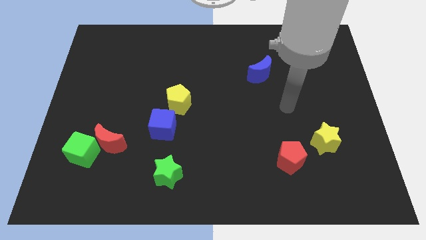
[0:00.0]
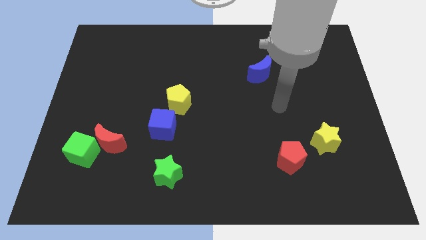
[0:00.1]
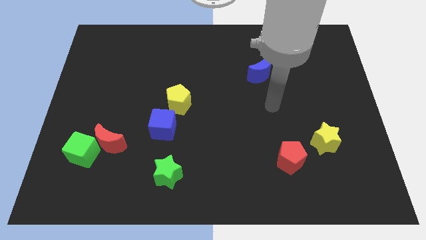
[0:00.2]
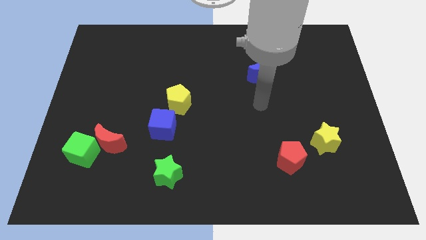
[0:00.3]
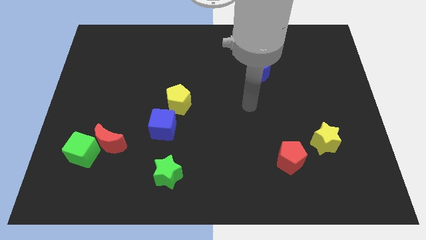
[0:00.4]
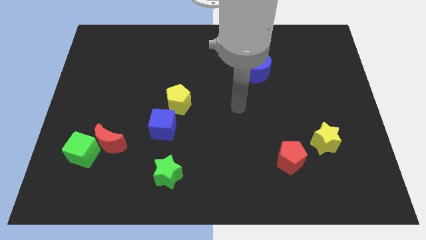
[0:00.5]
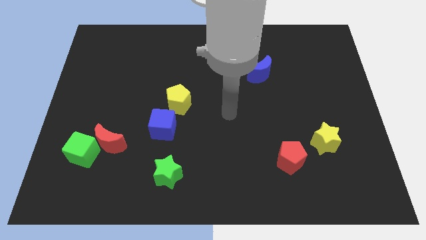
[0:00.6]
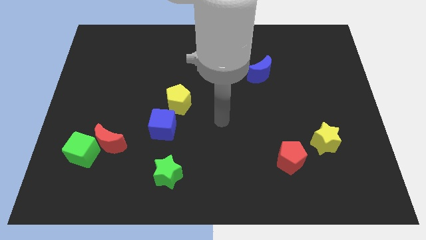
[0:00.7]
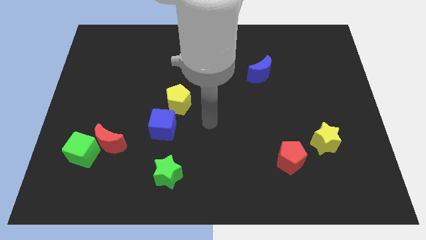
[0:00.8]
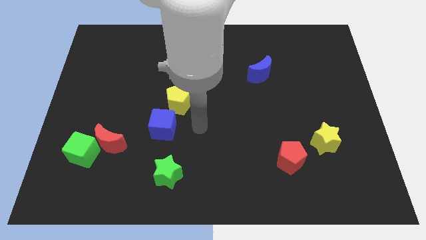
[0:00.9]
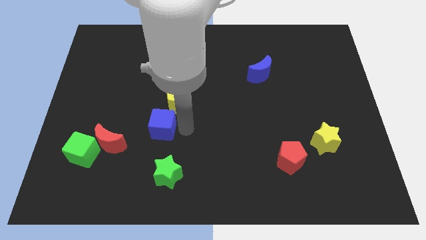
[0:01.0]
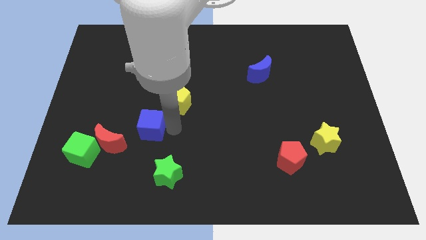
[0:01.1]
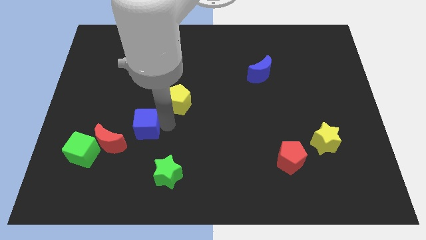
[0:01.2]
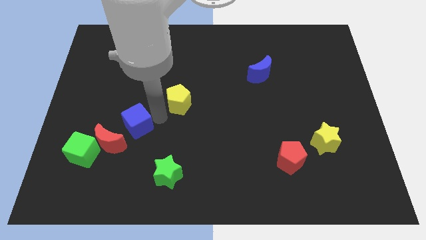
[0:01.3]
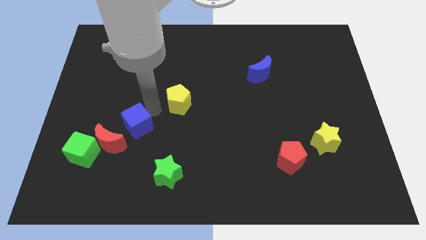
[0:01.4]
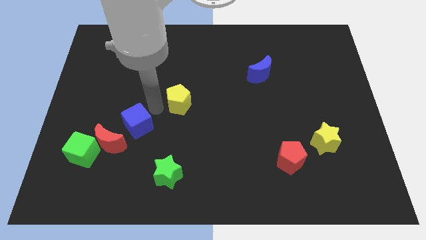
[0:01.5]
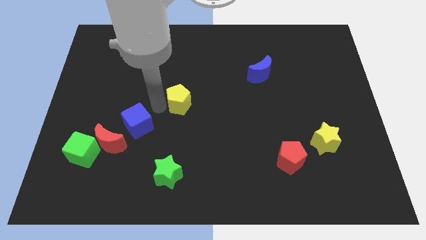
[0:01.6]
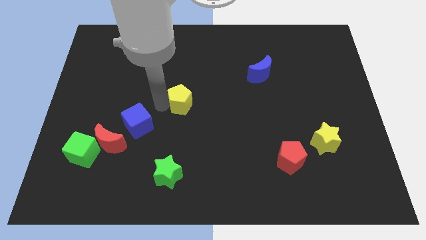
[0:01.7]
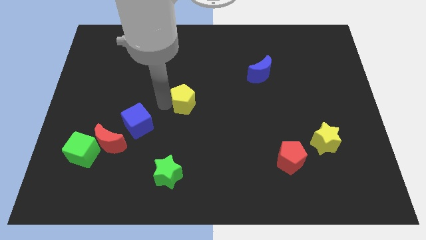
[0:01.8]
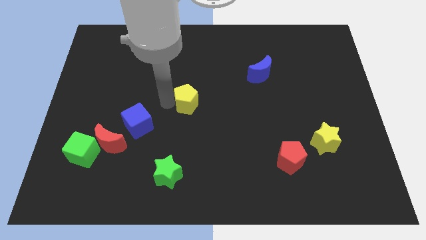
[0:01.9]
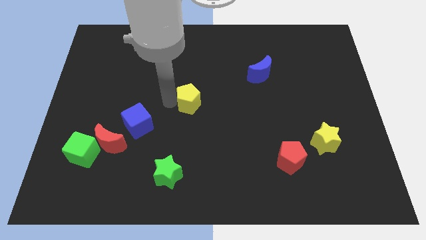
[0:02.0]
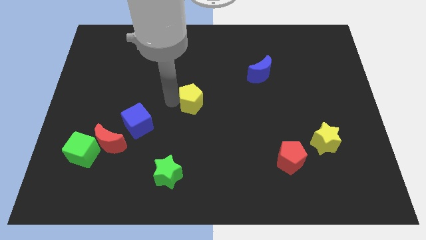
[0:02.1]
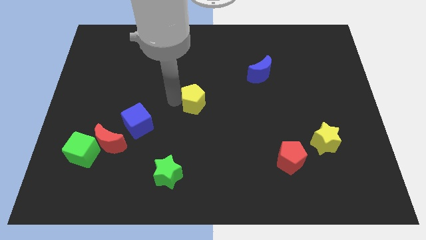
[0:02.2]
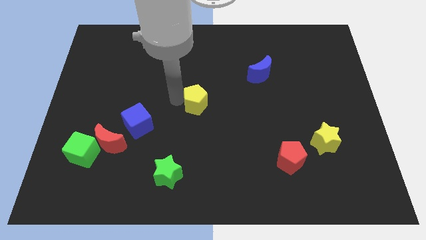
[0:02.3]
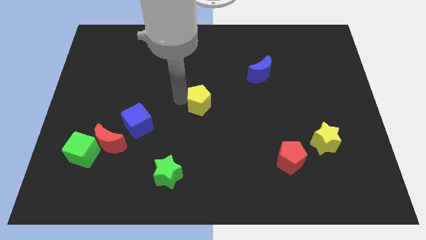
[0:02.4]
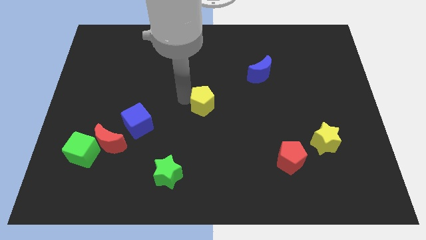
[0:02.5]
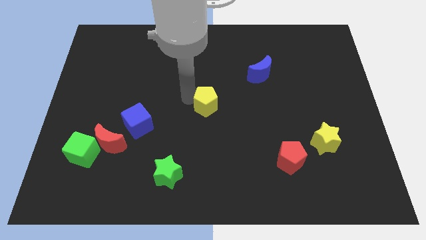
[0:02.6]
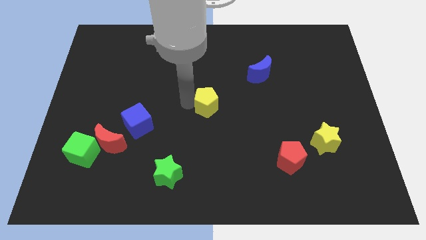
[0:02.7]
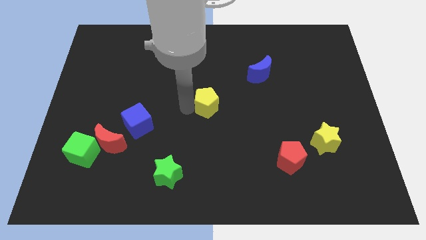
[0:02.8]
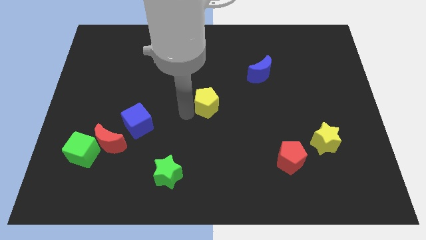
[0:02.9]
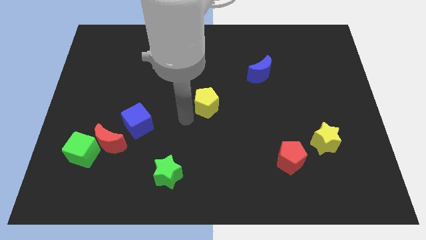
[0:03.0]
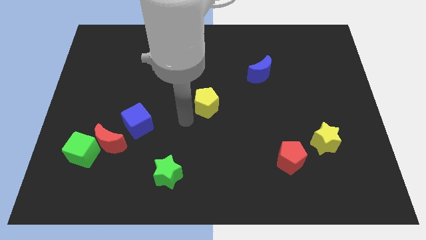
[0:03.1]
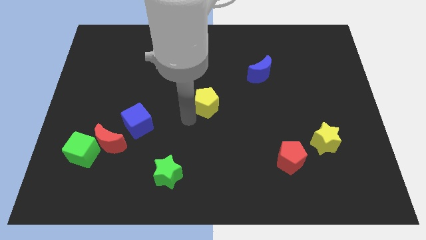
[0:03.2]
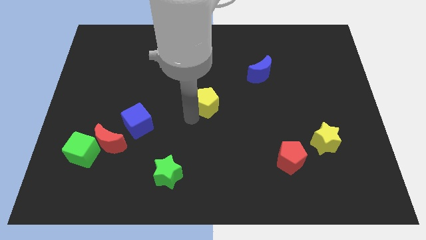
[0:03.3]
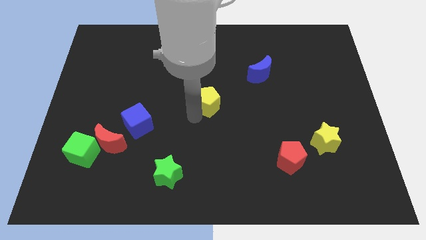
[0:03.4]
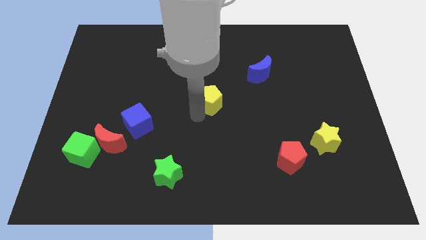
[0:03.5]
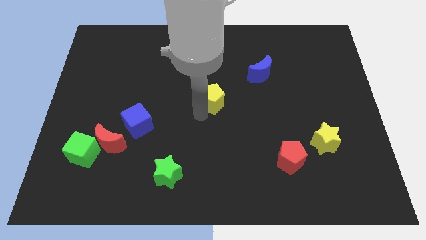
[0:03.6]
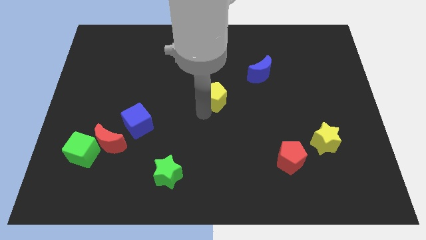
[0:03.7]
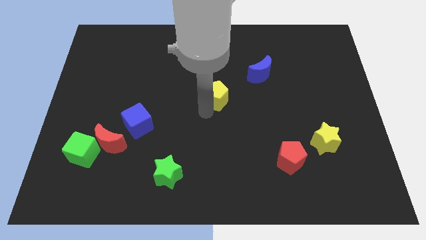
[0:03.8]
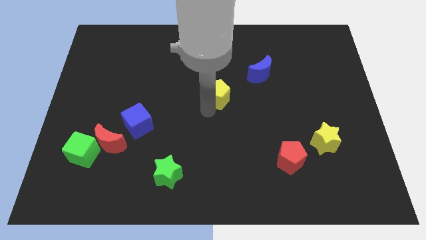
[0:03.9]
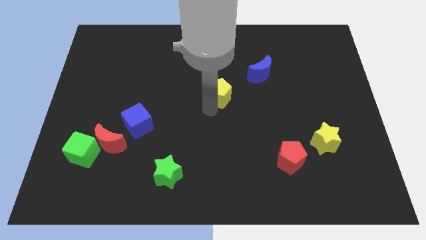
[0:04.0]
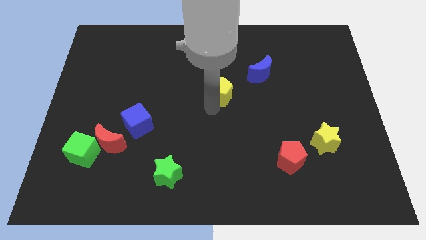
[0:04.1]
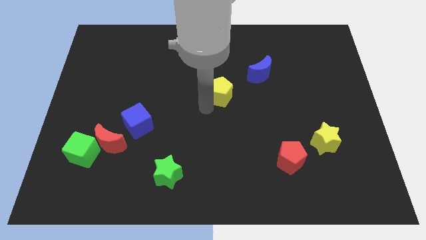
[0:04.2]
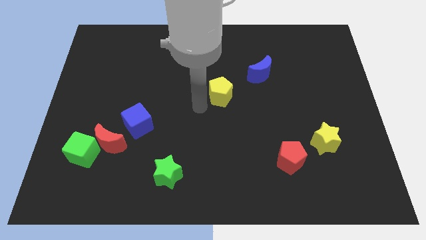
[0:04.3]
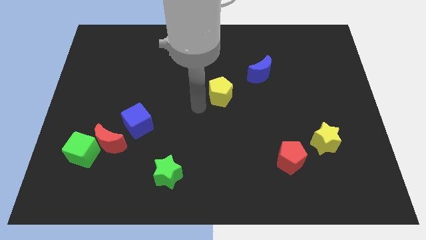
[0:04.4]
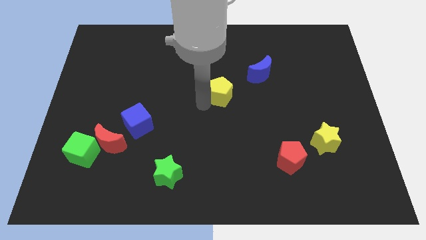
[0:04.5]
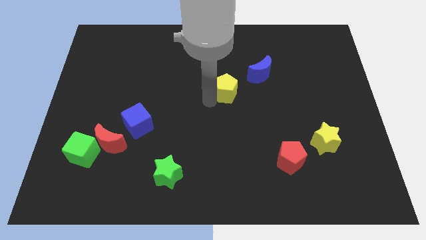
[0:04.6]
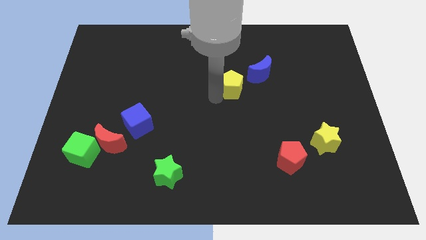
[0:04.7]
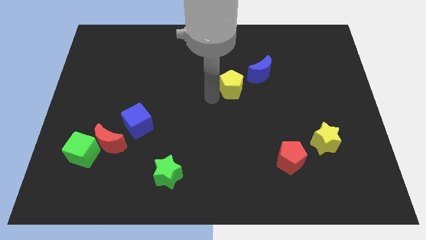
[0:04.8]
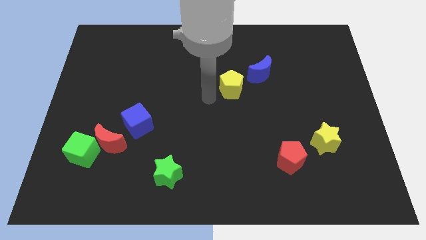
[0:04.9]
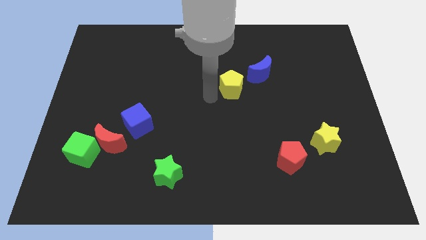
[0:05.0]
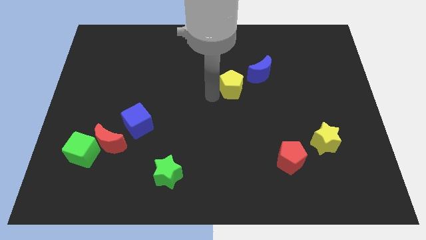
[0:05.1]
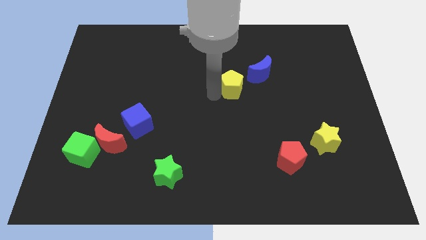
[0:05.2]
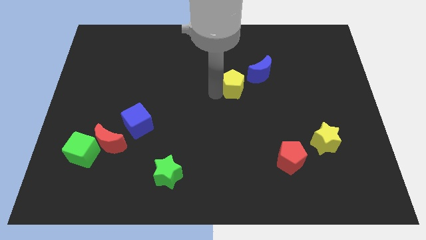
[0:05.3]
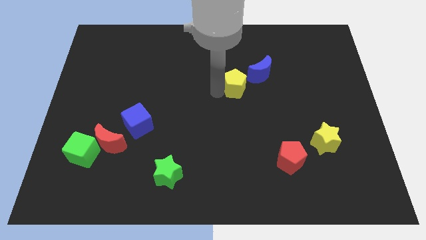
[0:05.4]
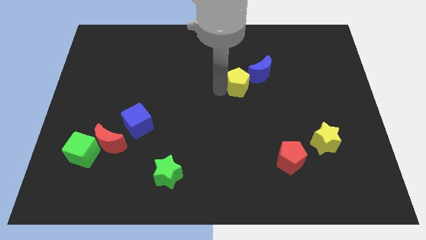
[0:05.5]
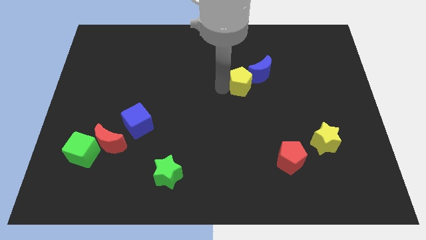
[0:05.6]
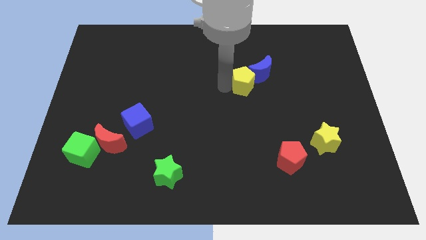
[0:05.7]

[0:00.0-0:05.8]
move the yellow pentagon to the blue moon
